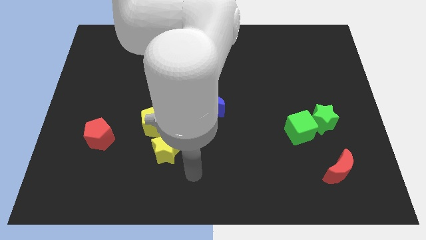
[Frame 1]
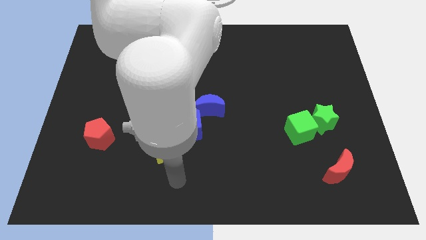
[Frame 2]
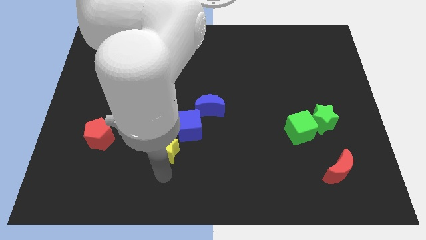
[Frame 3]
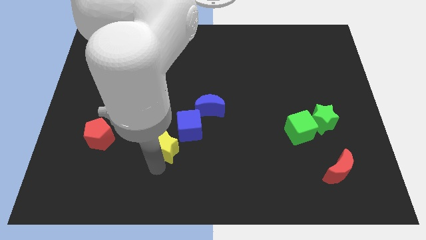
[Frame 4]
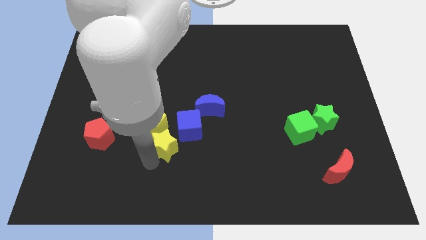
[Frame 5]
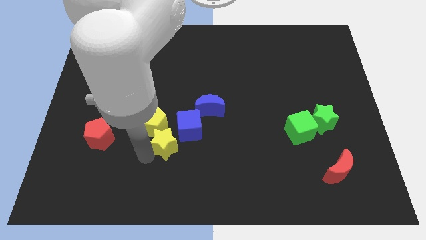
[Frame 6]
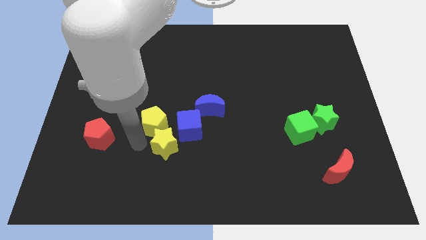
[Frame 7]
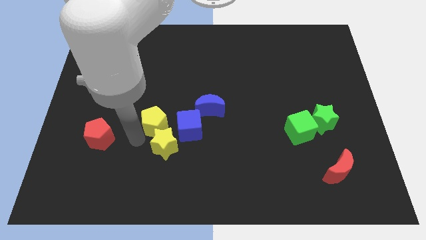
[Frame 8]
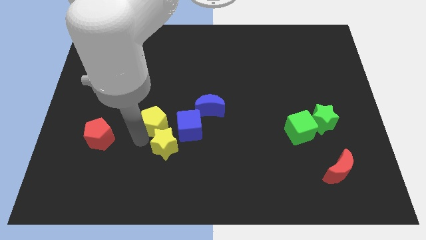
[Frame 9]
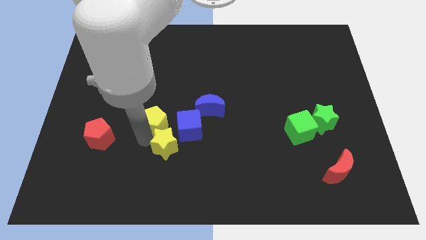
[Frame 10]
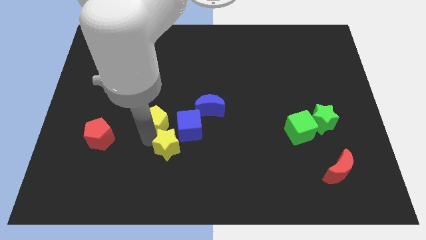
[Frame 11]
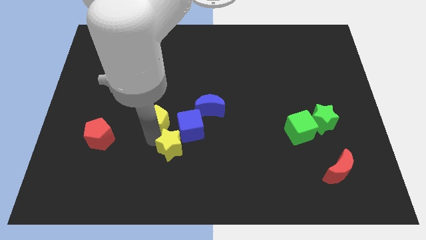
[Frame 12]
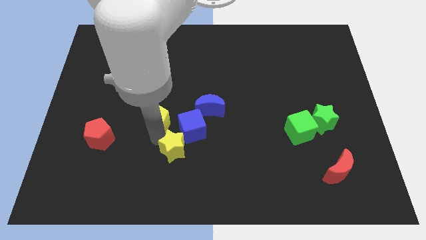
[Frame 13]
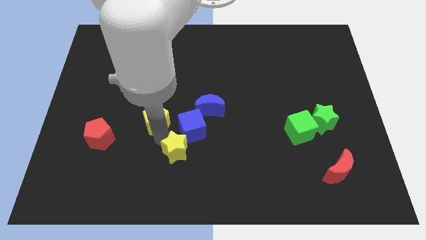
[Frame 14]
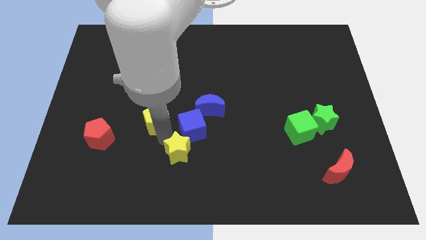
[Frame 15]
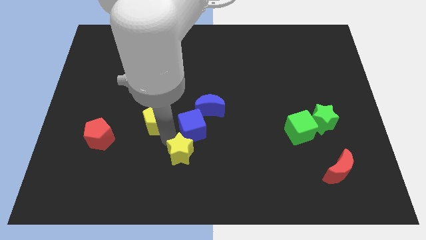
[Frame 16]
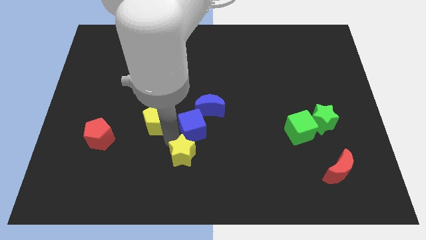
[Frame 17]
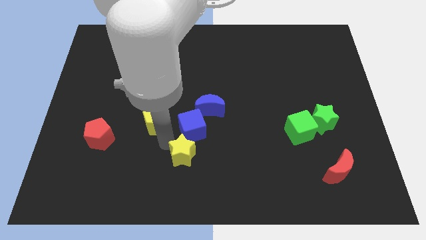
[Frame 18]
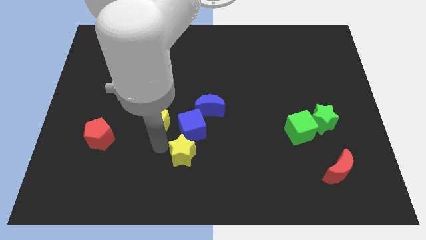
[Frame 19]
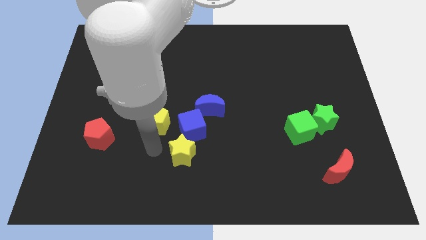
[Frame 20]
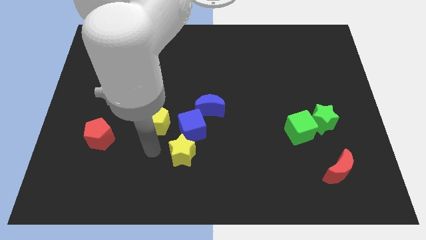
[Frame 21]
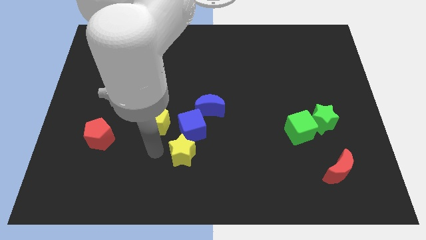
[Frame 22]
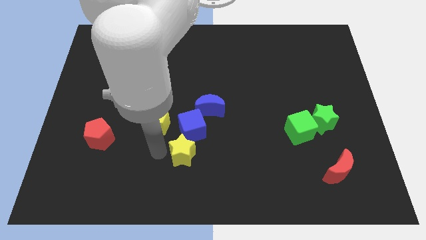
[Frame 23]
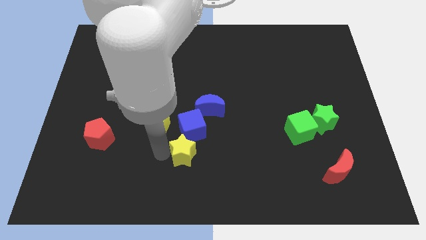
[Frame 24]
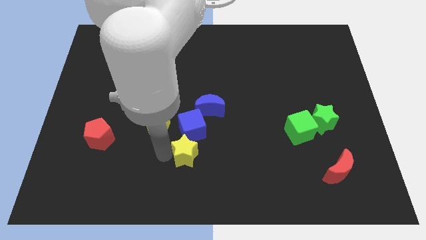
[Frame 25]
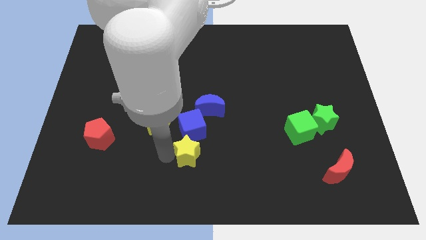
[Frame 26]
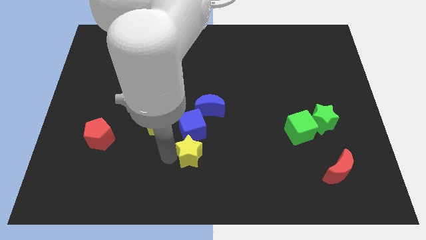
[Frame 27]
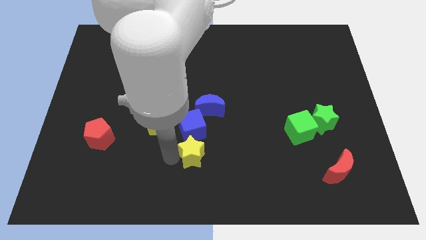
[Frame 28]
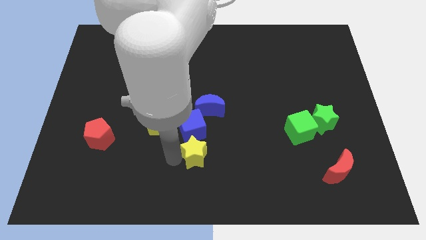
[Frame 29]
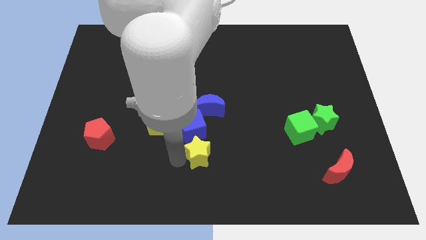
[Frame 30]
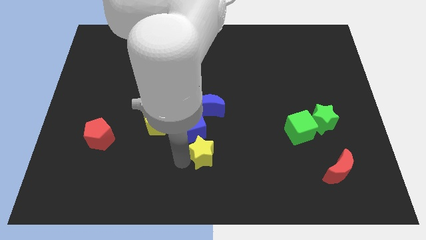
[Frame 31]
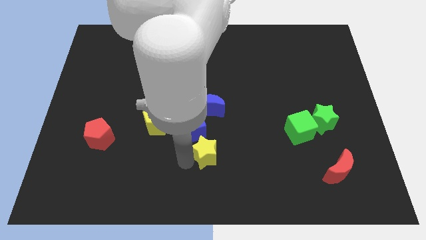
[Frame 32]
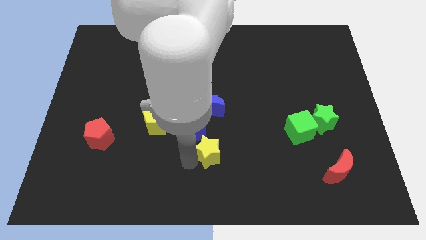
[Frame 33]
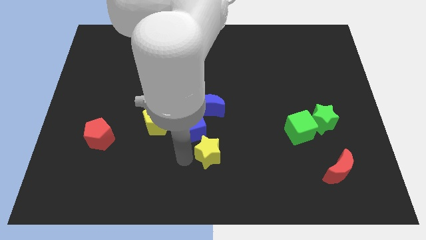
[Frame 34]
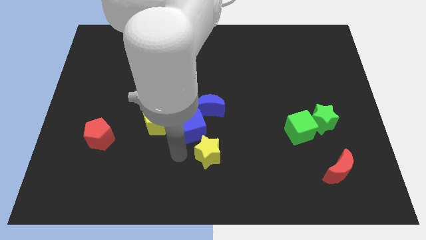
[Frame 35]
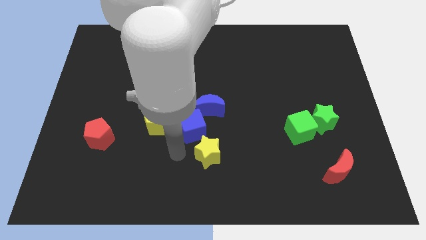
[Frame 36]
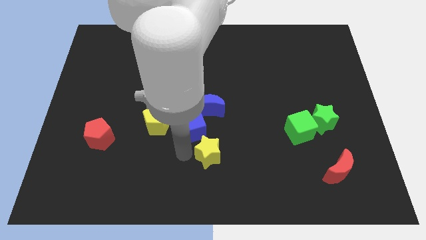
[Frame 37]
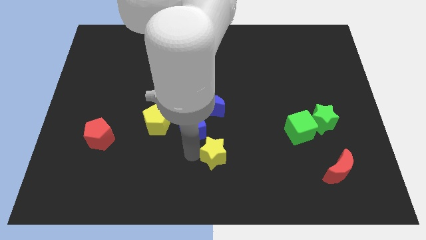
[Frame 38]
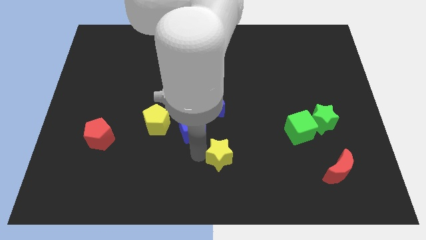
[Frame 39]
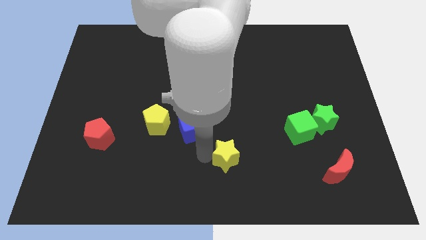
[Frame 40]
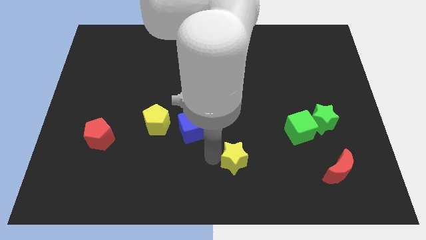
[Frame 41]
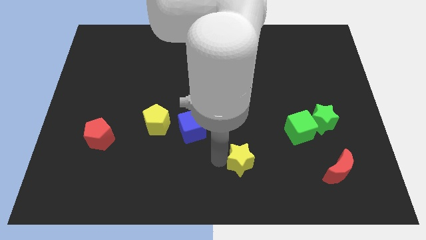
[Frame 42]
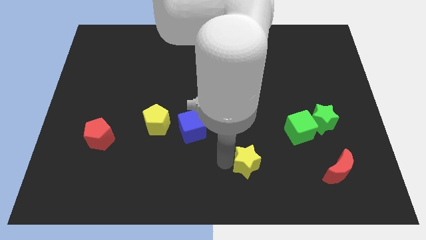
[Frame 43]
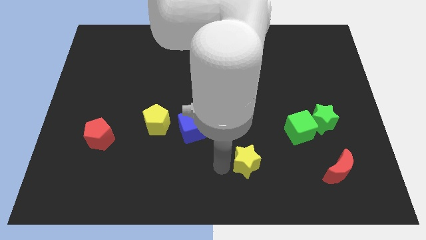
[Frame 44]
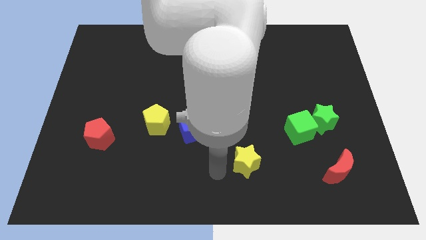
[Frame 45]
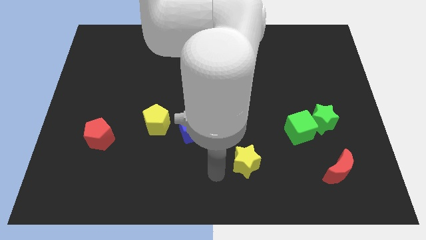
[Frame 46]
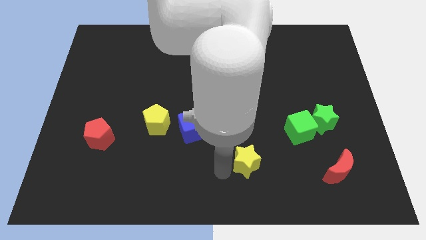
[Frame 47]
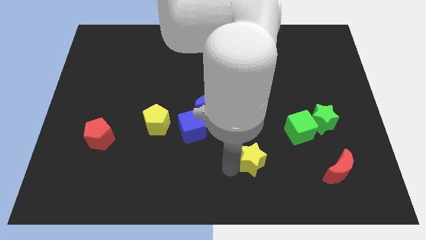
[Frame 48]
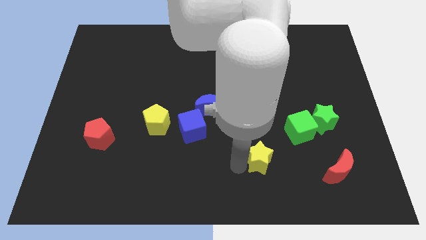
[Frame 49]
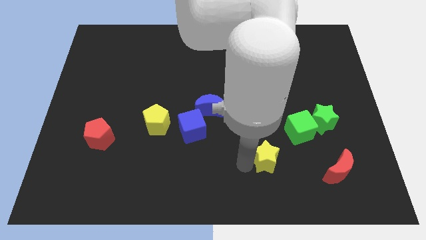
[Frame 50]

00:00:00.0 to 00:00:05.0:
move the yellow star to the right

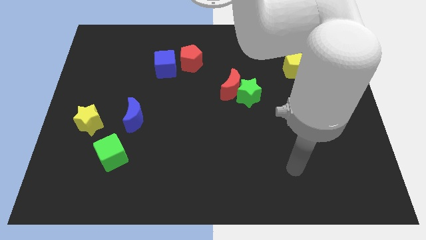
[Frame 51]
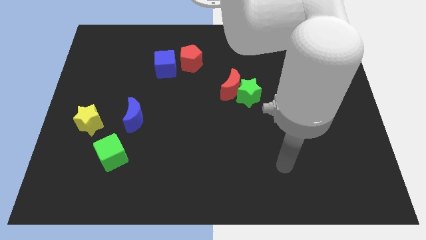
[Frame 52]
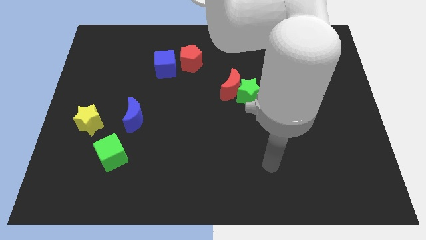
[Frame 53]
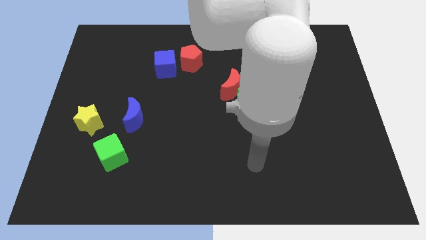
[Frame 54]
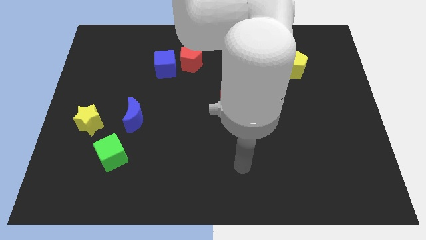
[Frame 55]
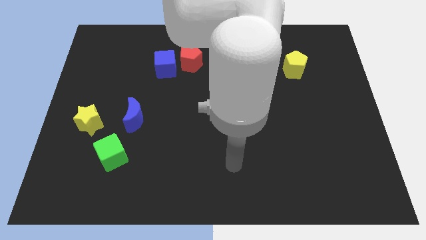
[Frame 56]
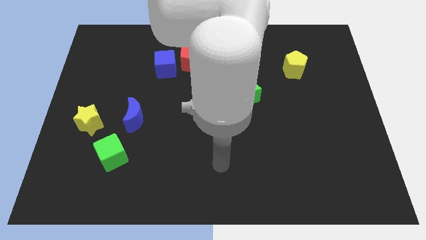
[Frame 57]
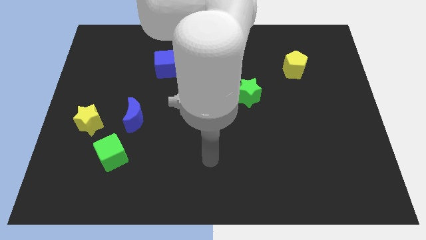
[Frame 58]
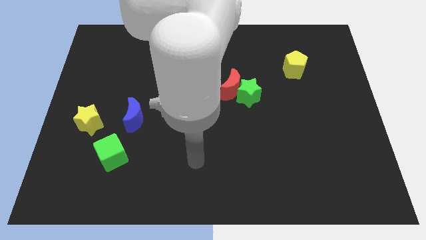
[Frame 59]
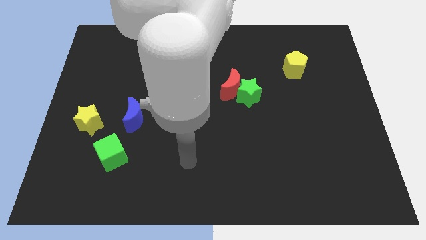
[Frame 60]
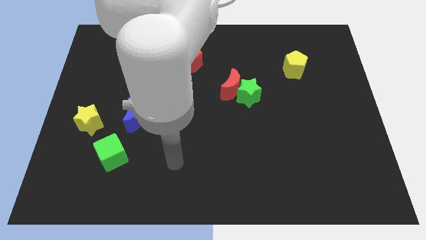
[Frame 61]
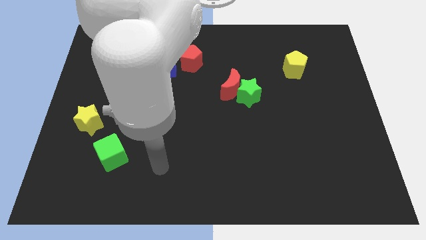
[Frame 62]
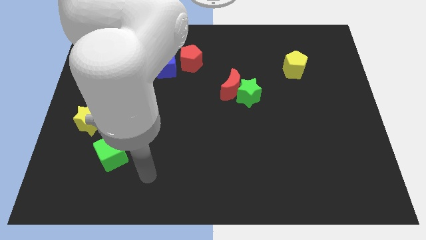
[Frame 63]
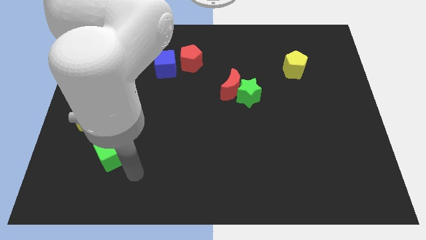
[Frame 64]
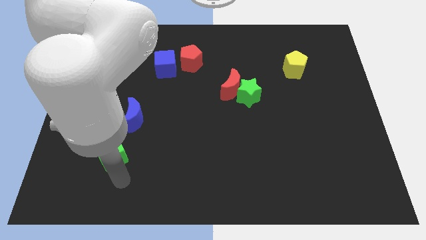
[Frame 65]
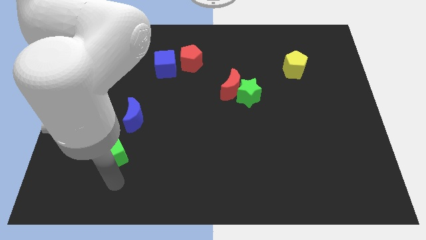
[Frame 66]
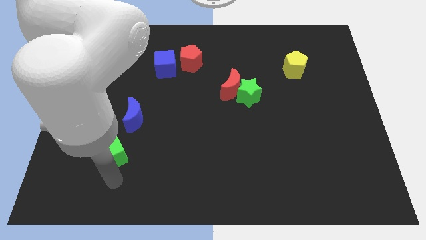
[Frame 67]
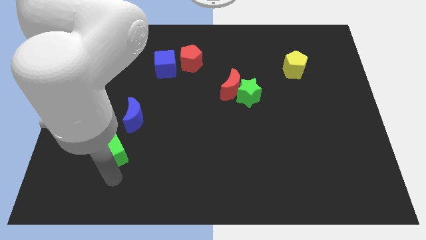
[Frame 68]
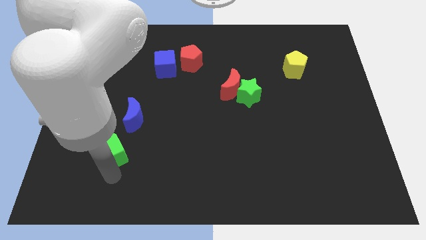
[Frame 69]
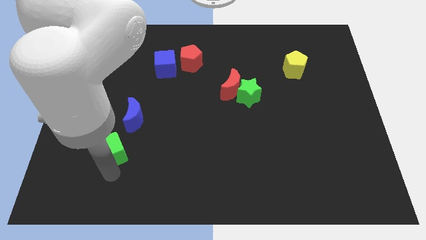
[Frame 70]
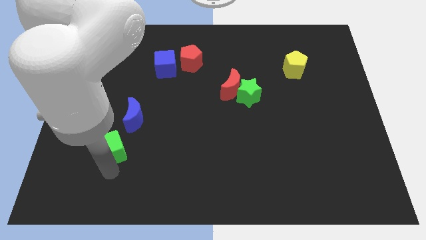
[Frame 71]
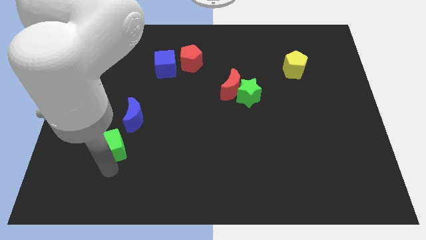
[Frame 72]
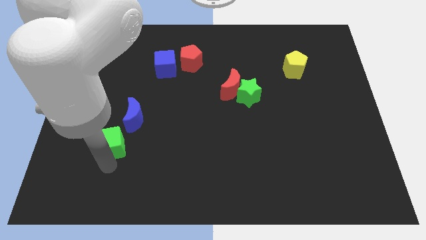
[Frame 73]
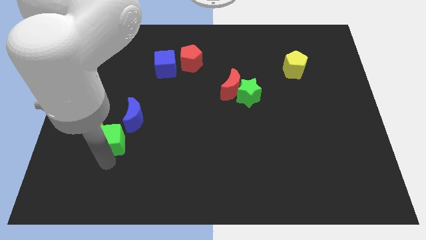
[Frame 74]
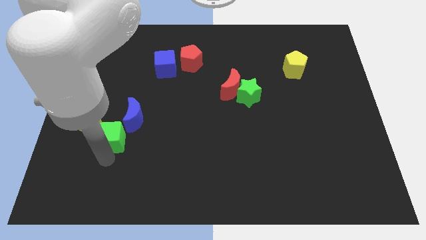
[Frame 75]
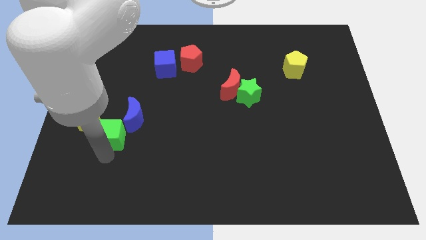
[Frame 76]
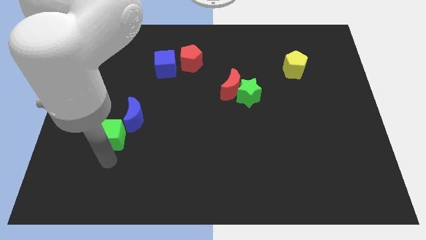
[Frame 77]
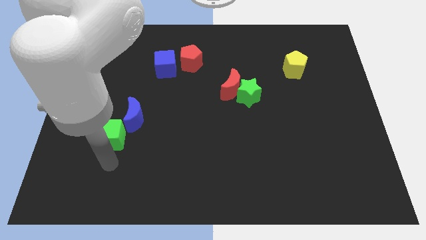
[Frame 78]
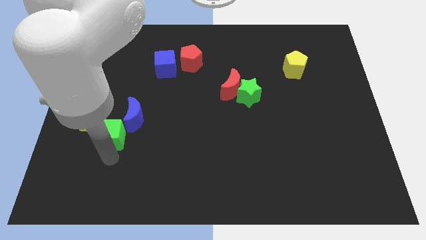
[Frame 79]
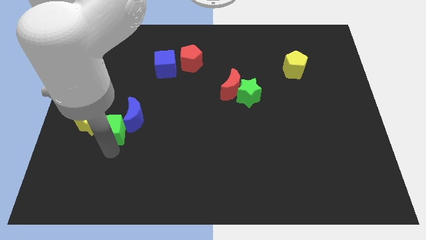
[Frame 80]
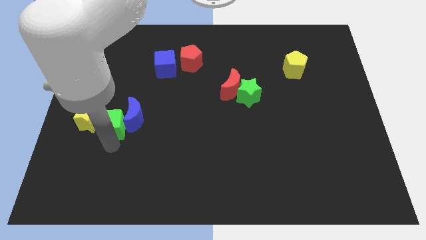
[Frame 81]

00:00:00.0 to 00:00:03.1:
slightly push the green cube upwards
